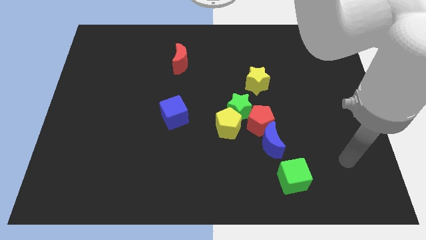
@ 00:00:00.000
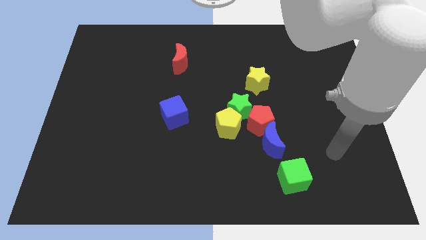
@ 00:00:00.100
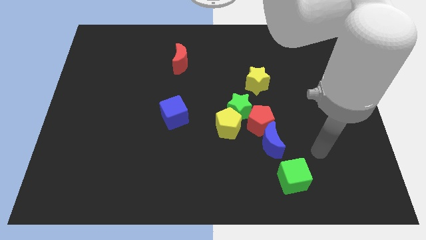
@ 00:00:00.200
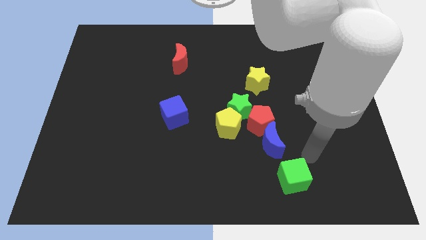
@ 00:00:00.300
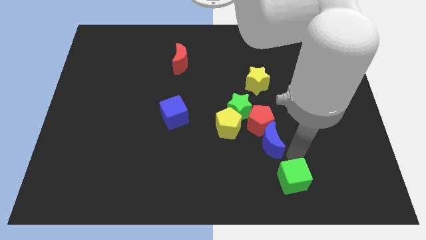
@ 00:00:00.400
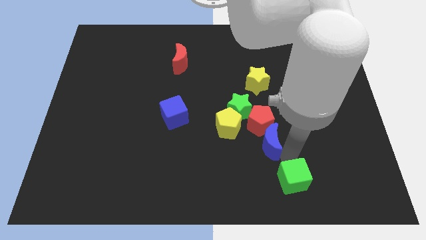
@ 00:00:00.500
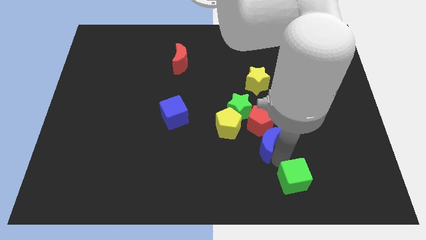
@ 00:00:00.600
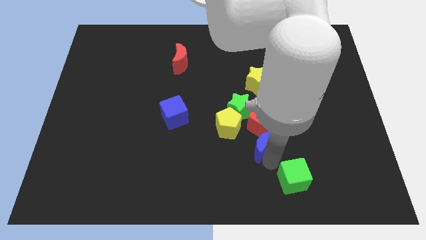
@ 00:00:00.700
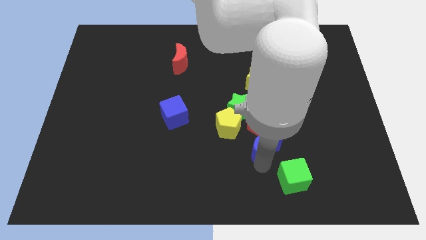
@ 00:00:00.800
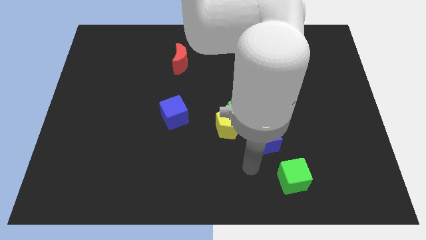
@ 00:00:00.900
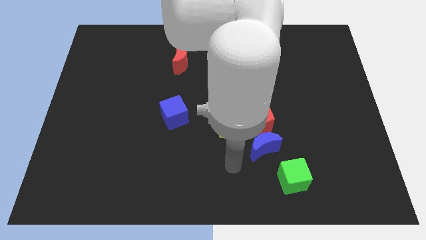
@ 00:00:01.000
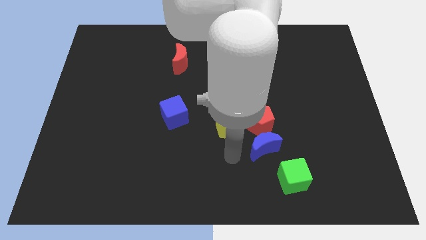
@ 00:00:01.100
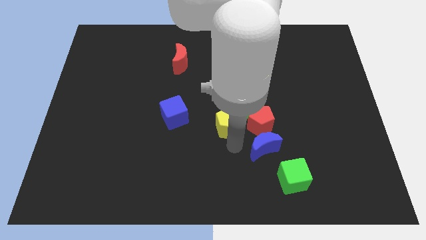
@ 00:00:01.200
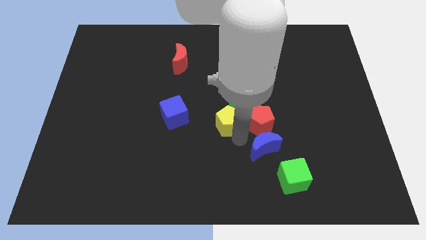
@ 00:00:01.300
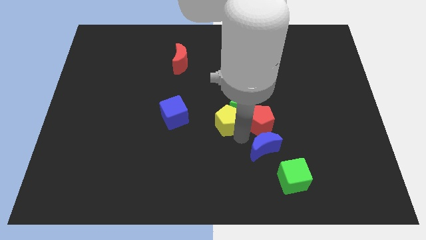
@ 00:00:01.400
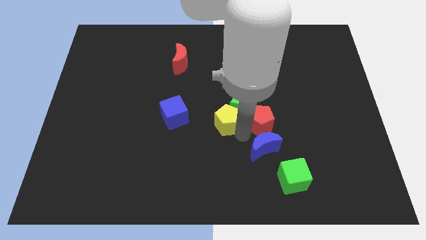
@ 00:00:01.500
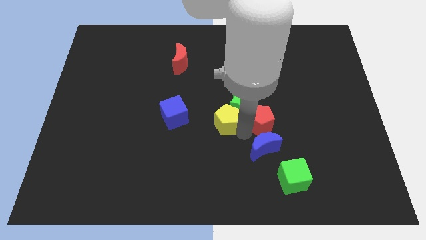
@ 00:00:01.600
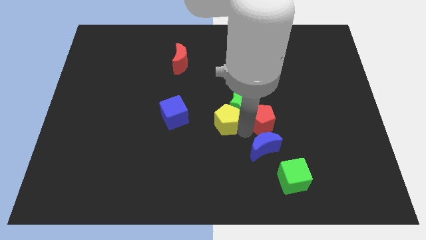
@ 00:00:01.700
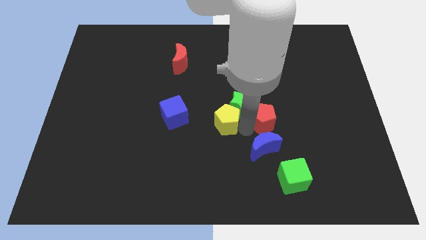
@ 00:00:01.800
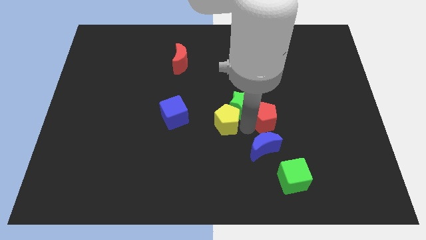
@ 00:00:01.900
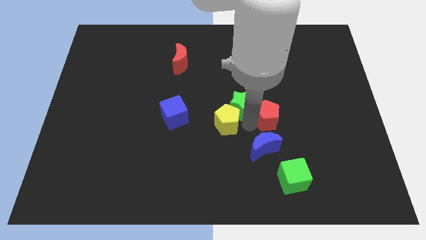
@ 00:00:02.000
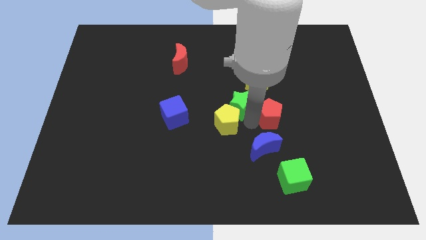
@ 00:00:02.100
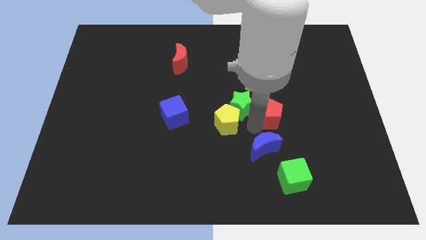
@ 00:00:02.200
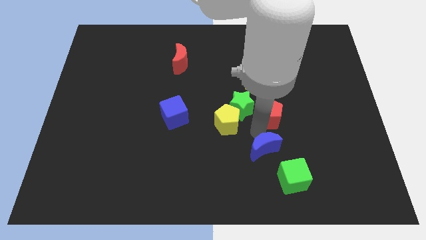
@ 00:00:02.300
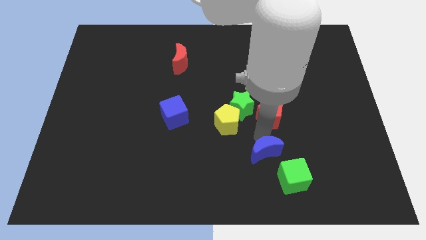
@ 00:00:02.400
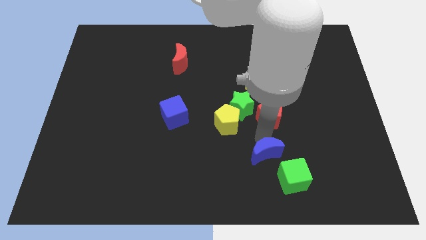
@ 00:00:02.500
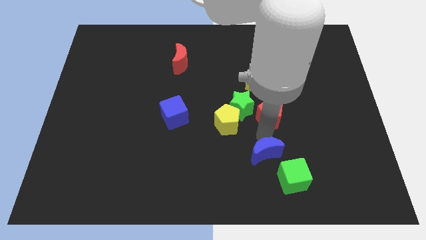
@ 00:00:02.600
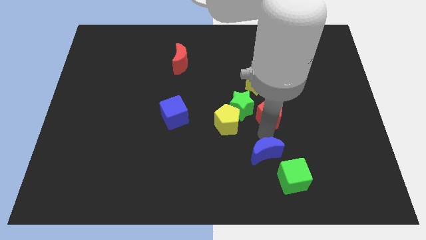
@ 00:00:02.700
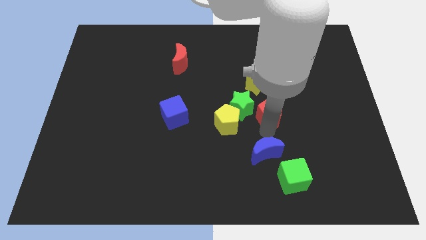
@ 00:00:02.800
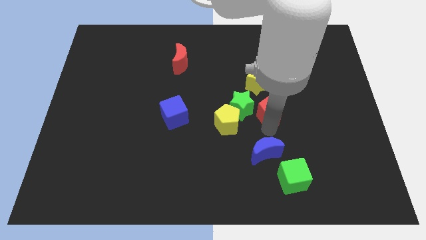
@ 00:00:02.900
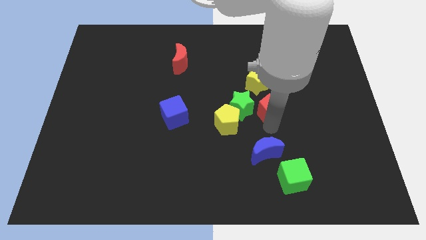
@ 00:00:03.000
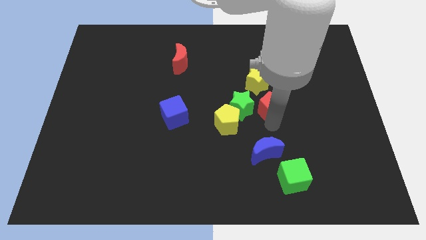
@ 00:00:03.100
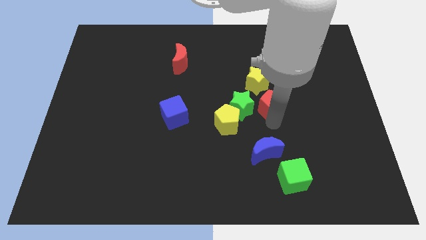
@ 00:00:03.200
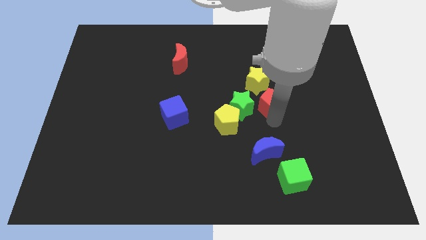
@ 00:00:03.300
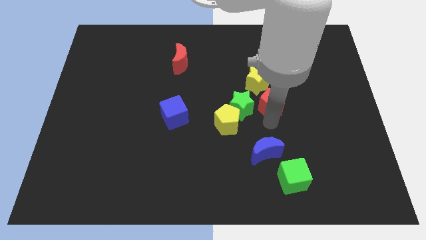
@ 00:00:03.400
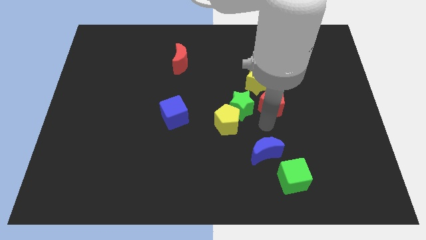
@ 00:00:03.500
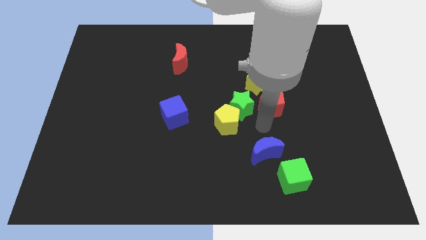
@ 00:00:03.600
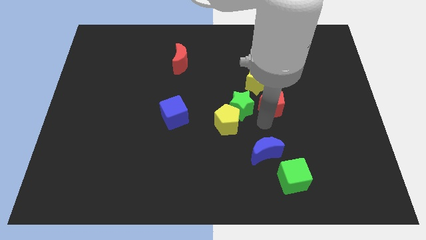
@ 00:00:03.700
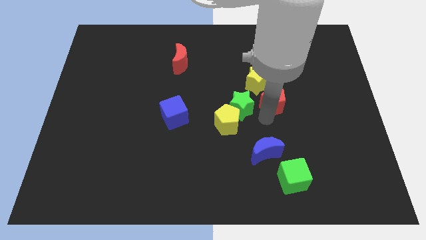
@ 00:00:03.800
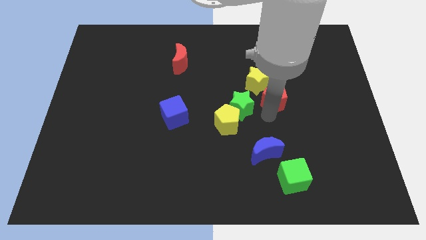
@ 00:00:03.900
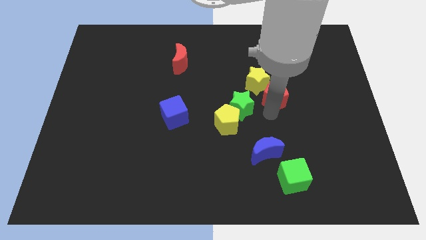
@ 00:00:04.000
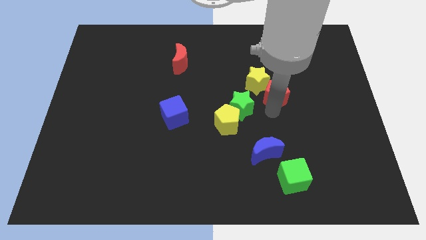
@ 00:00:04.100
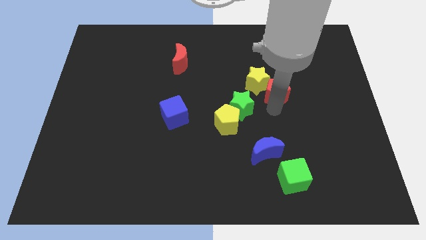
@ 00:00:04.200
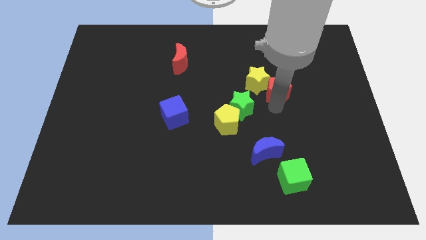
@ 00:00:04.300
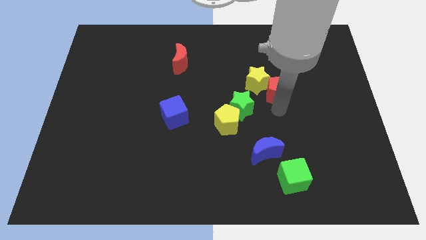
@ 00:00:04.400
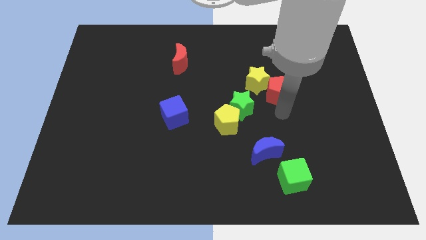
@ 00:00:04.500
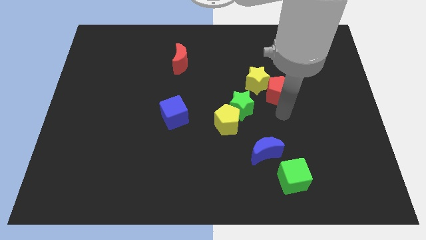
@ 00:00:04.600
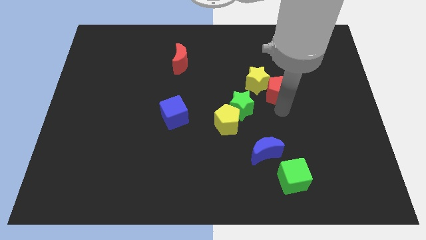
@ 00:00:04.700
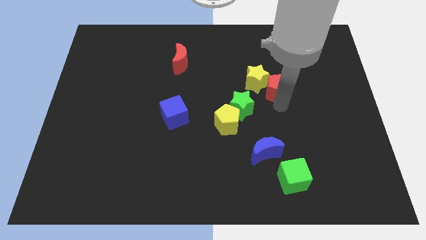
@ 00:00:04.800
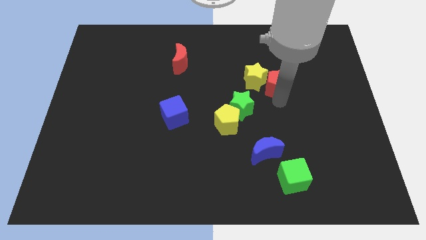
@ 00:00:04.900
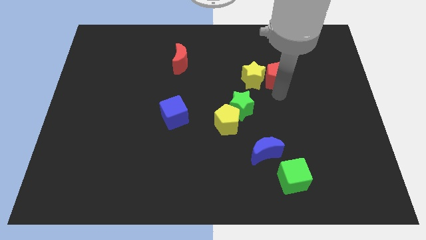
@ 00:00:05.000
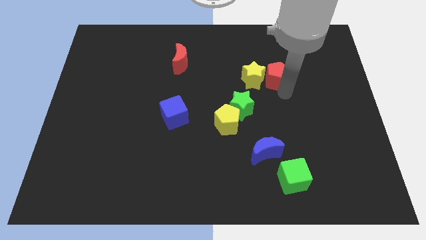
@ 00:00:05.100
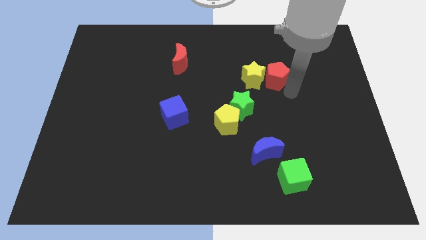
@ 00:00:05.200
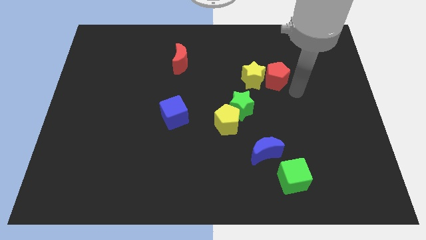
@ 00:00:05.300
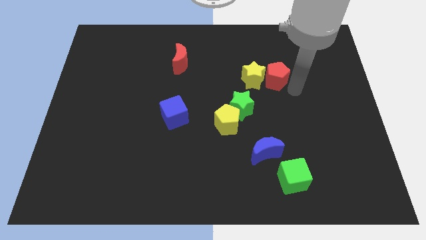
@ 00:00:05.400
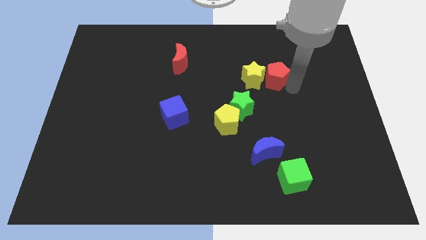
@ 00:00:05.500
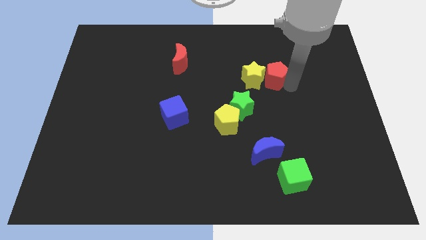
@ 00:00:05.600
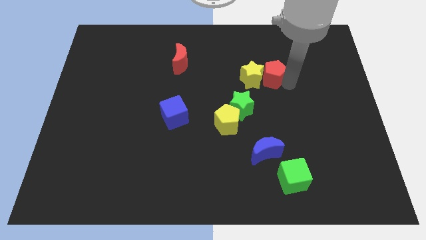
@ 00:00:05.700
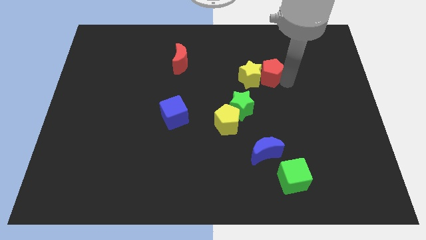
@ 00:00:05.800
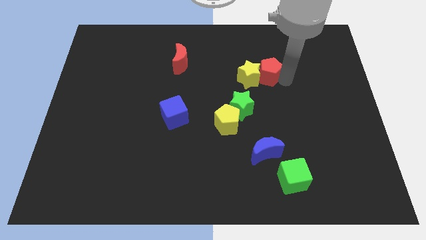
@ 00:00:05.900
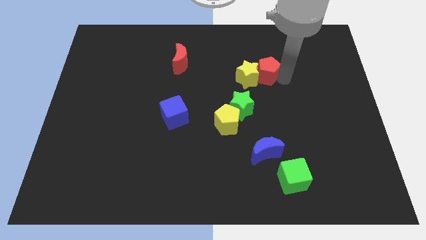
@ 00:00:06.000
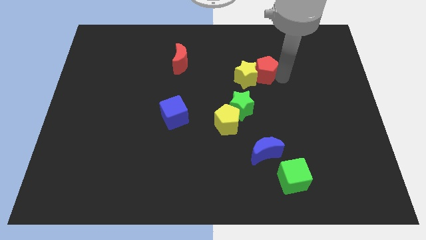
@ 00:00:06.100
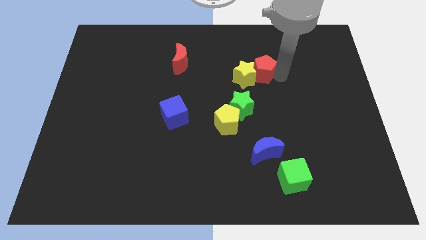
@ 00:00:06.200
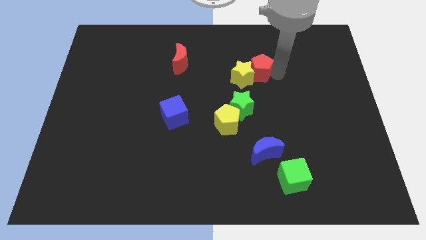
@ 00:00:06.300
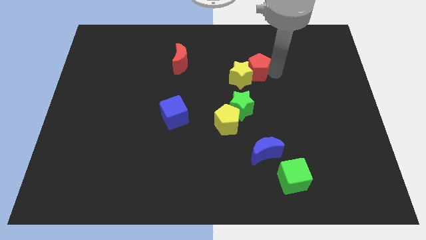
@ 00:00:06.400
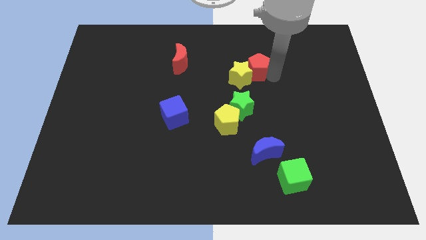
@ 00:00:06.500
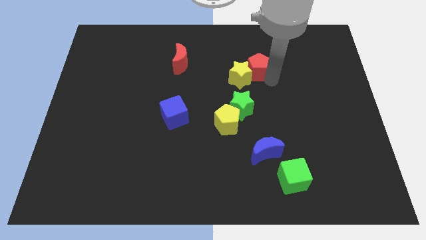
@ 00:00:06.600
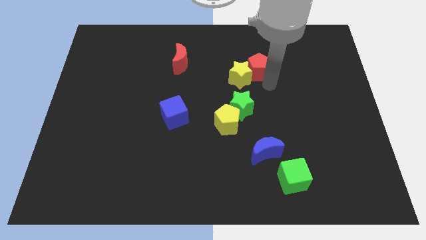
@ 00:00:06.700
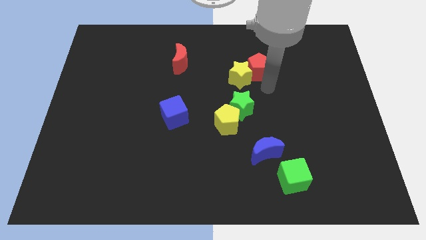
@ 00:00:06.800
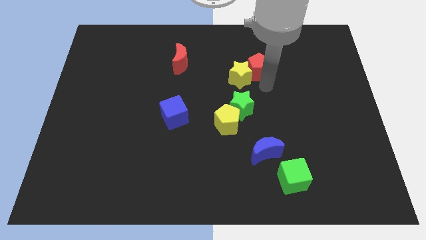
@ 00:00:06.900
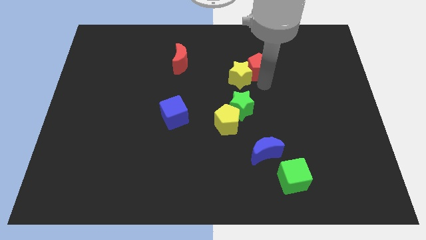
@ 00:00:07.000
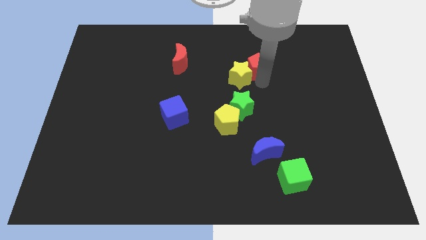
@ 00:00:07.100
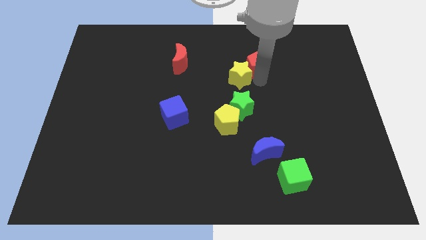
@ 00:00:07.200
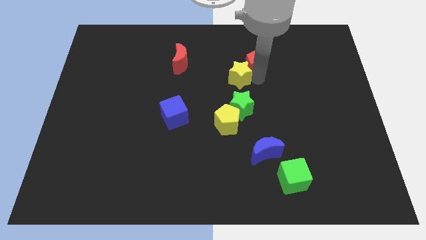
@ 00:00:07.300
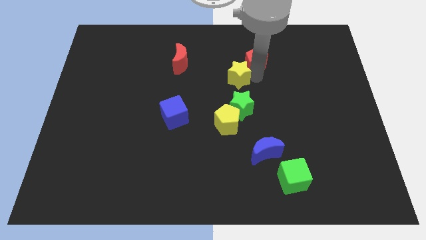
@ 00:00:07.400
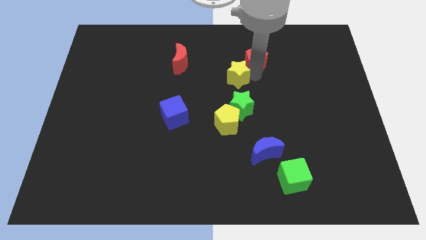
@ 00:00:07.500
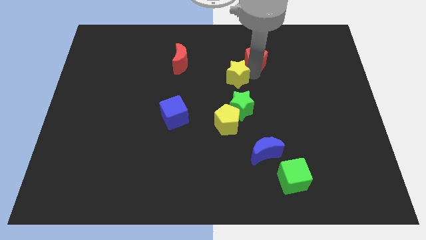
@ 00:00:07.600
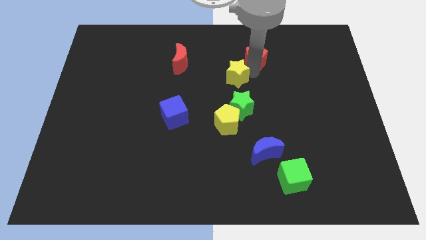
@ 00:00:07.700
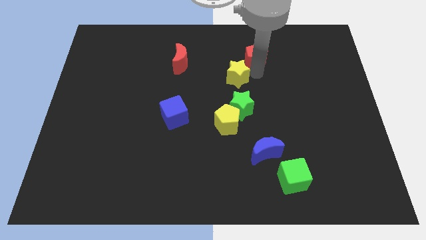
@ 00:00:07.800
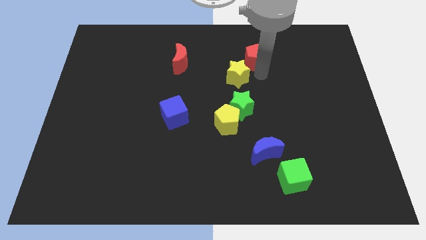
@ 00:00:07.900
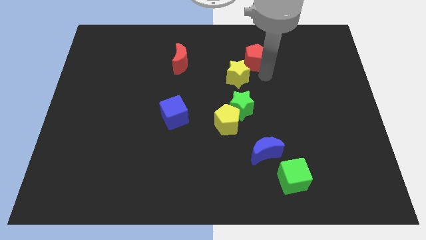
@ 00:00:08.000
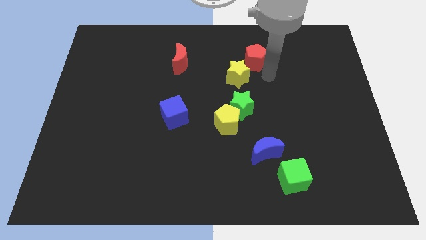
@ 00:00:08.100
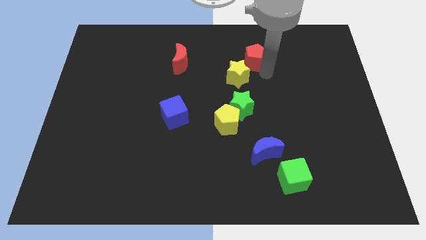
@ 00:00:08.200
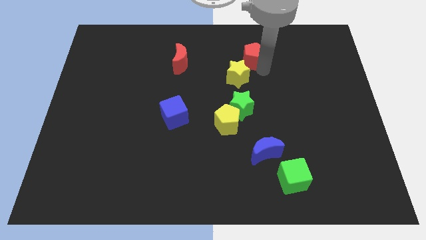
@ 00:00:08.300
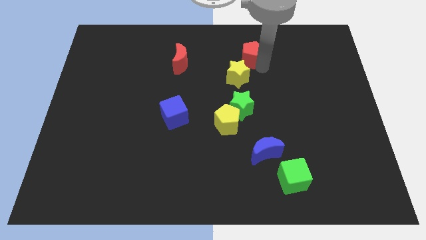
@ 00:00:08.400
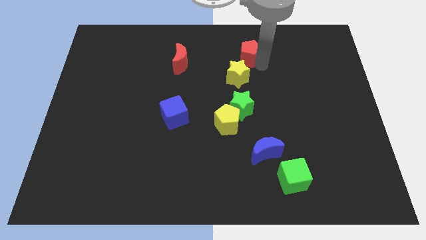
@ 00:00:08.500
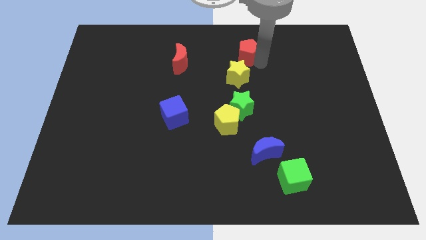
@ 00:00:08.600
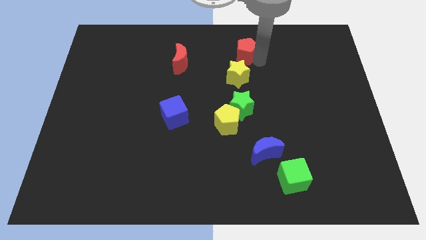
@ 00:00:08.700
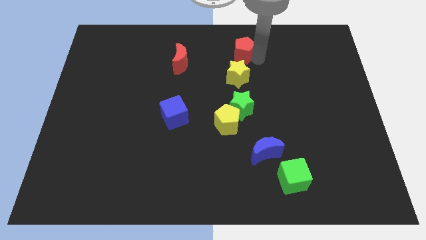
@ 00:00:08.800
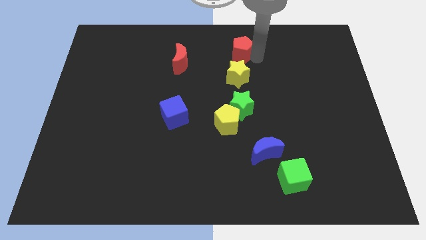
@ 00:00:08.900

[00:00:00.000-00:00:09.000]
slide the red pentagon to the top
